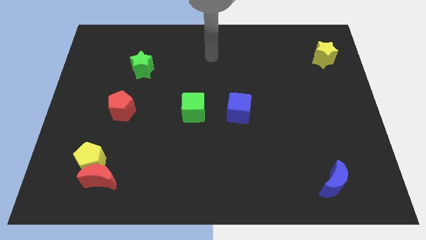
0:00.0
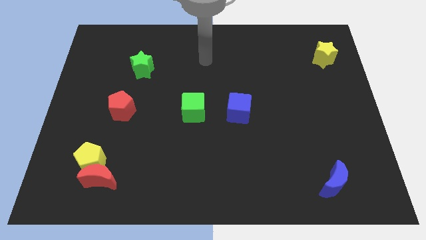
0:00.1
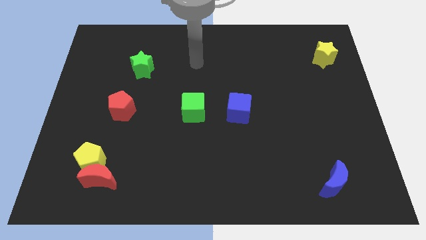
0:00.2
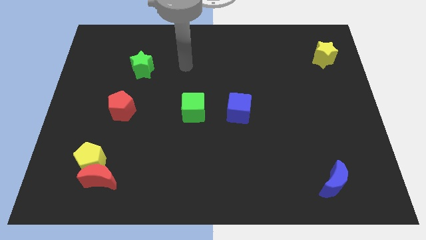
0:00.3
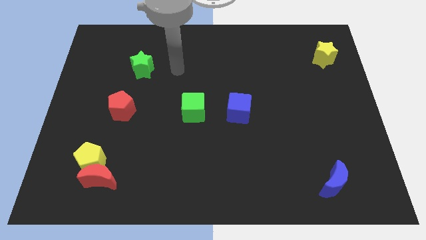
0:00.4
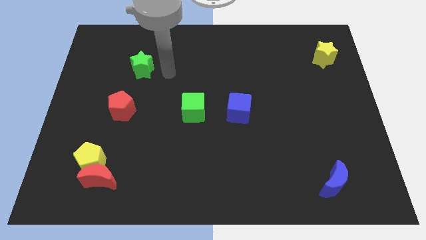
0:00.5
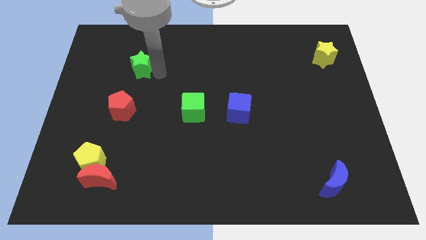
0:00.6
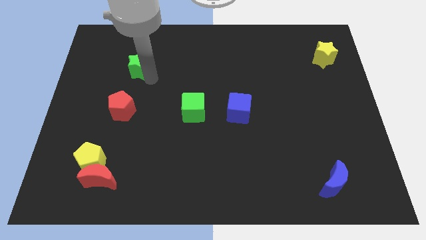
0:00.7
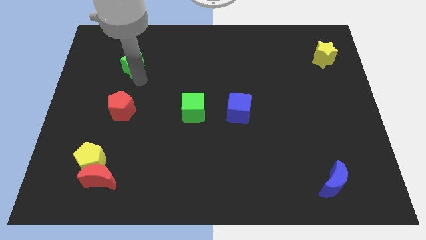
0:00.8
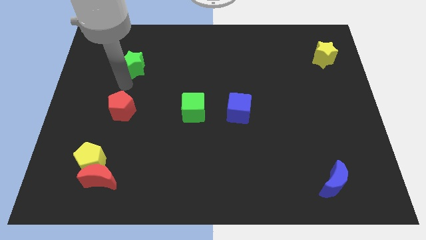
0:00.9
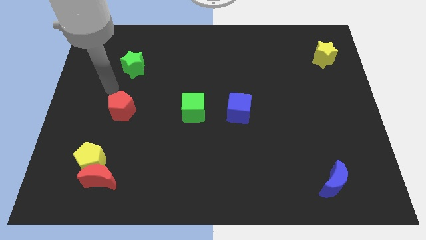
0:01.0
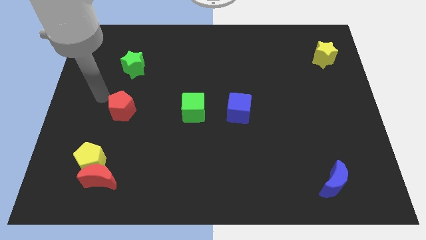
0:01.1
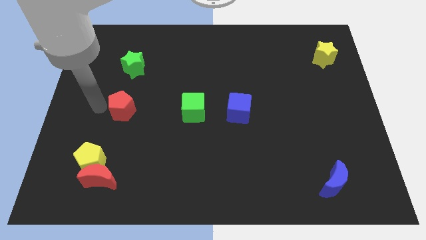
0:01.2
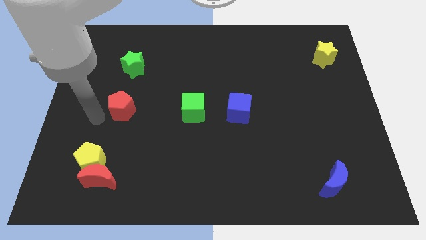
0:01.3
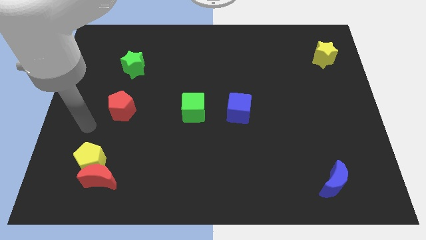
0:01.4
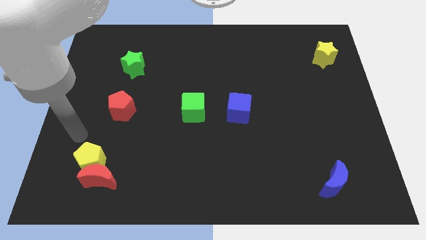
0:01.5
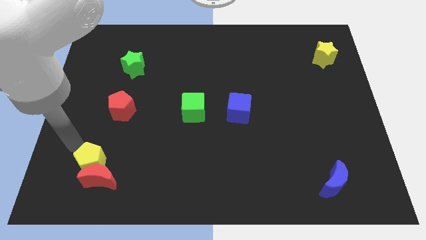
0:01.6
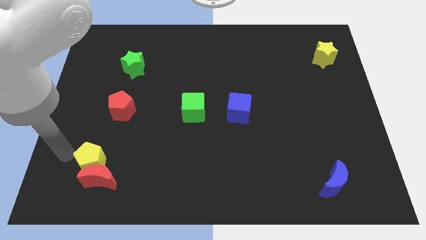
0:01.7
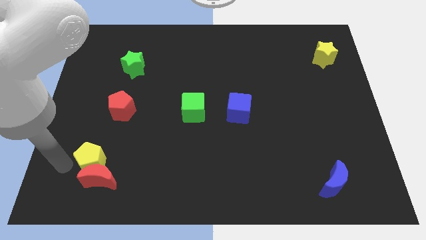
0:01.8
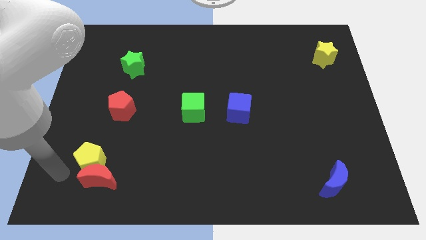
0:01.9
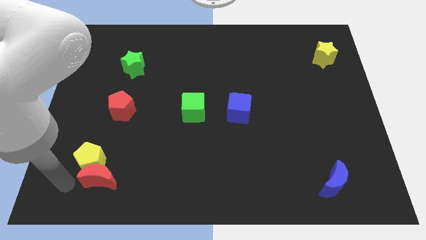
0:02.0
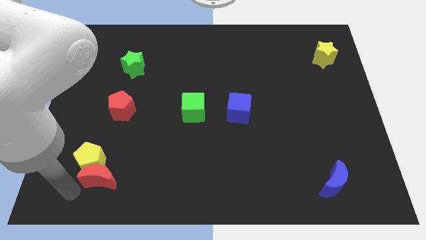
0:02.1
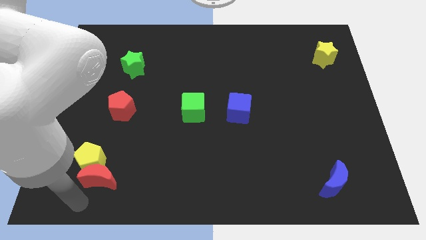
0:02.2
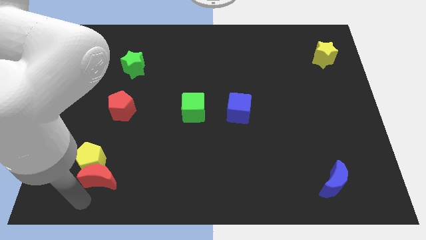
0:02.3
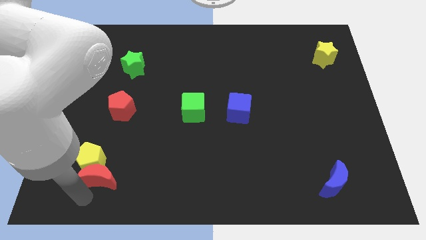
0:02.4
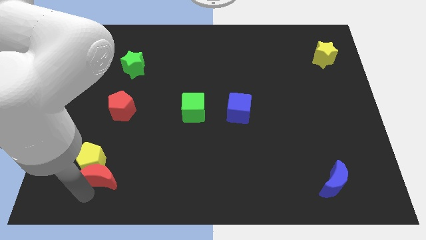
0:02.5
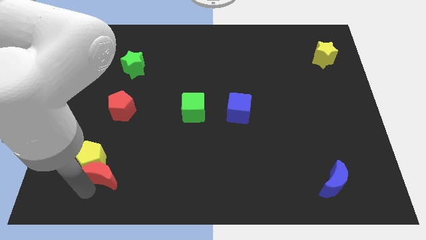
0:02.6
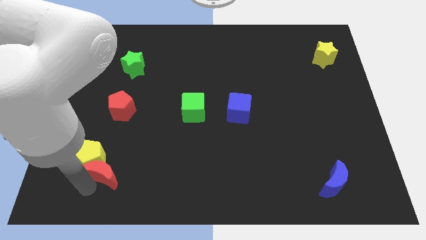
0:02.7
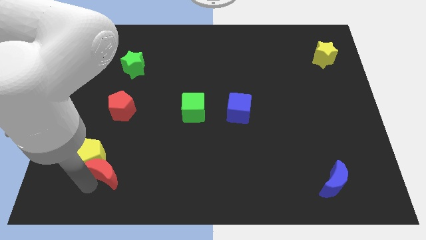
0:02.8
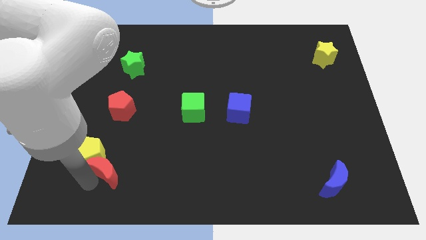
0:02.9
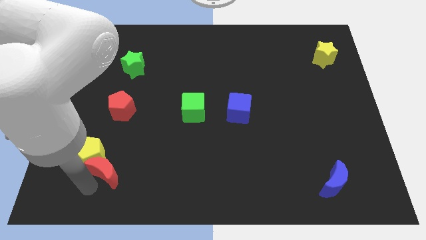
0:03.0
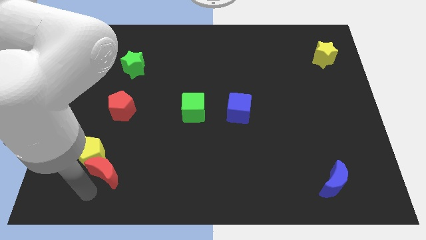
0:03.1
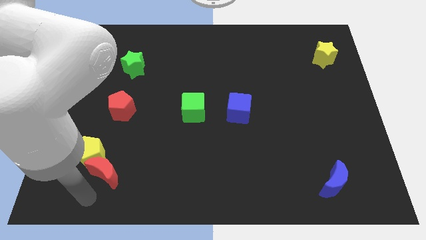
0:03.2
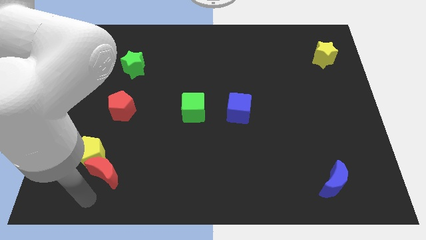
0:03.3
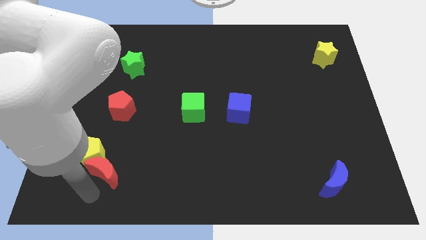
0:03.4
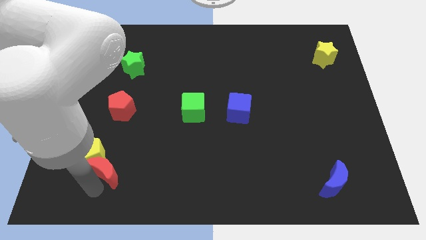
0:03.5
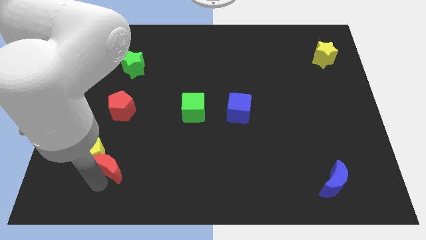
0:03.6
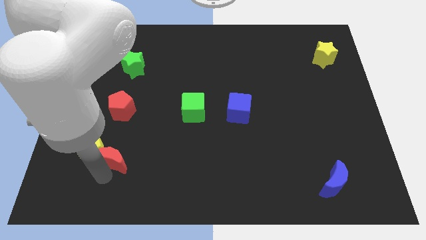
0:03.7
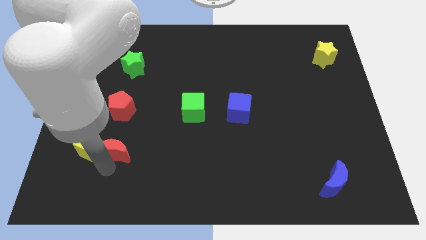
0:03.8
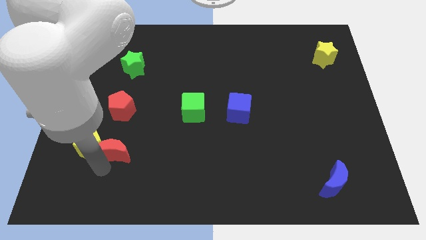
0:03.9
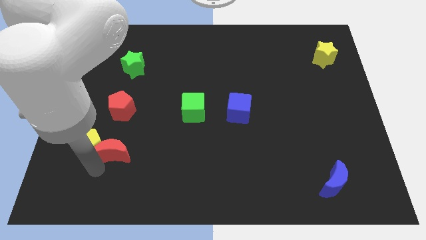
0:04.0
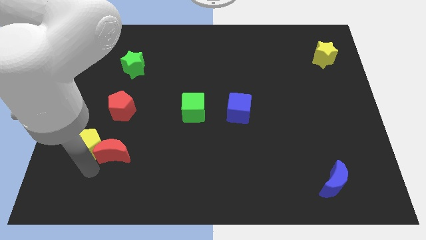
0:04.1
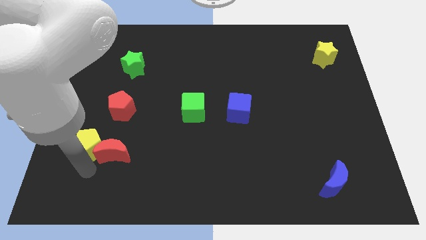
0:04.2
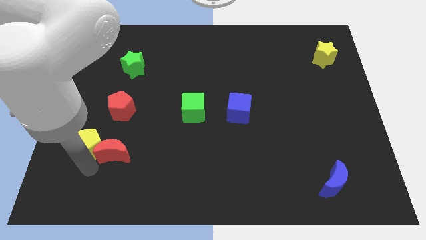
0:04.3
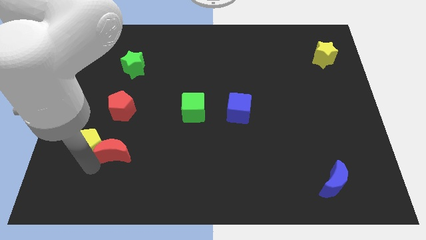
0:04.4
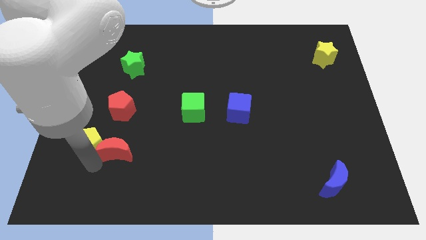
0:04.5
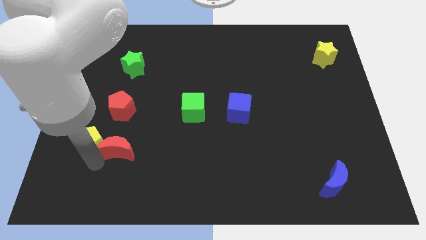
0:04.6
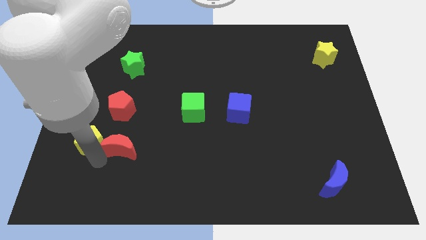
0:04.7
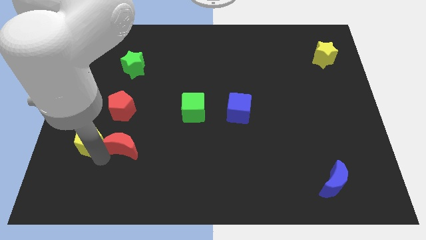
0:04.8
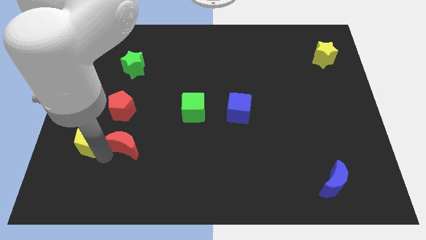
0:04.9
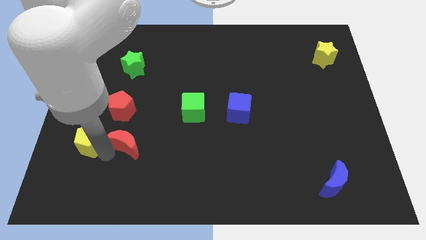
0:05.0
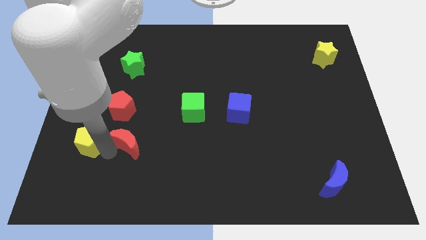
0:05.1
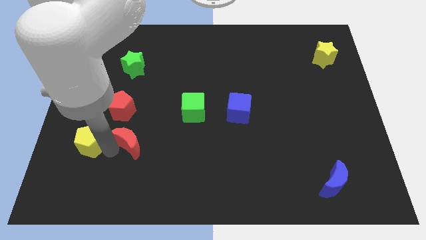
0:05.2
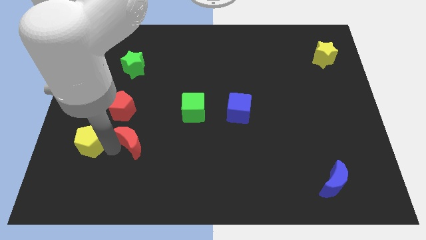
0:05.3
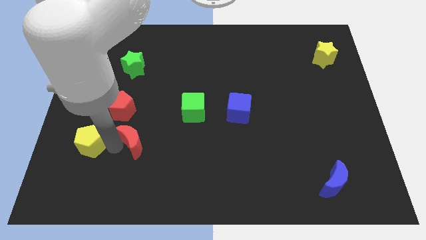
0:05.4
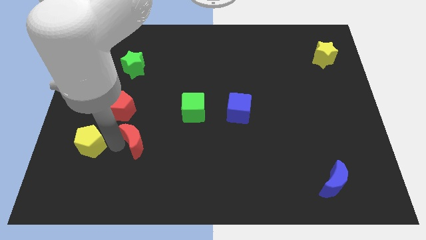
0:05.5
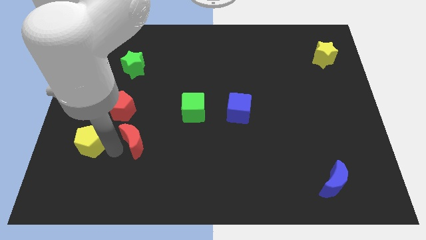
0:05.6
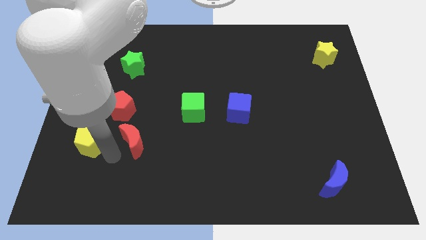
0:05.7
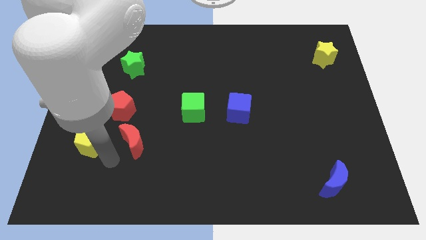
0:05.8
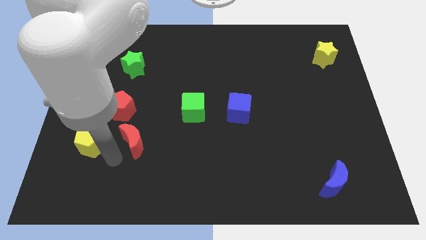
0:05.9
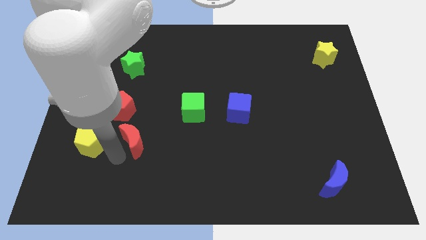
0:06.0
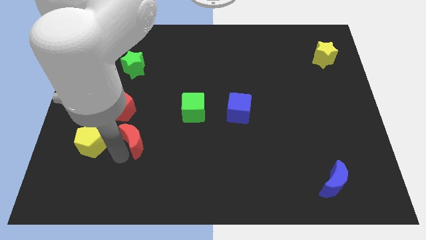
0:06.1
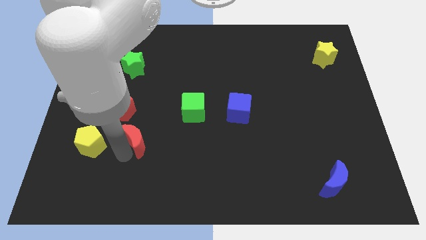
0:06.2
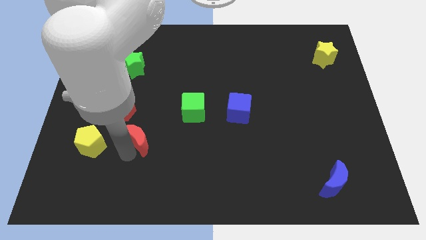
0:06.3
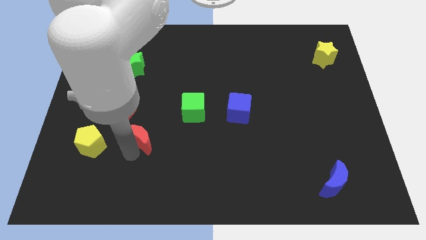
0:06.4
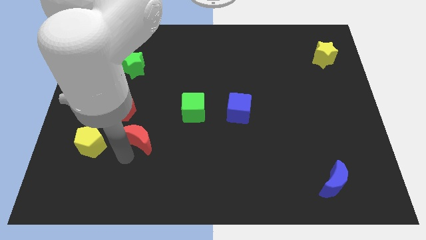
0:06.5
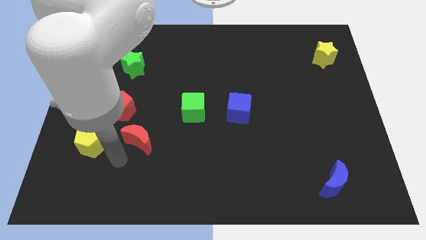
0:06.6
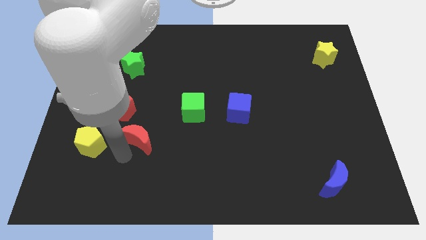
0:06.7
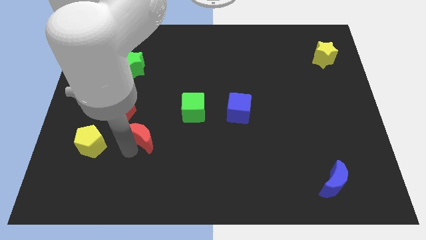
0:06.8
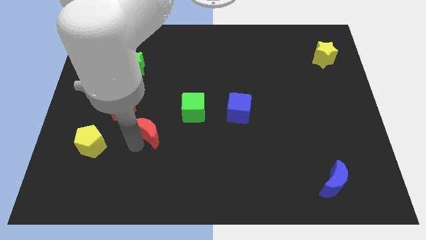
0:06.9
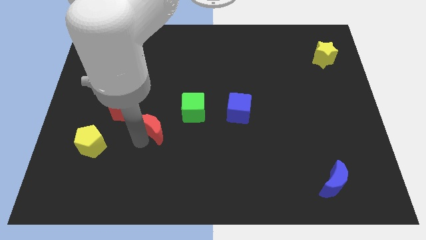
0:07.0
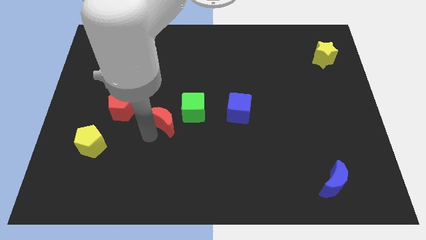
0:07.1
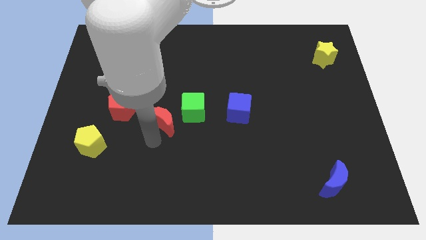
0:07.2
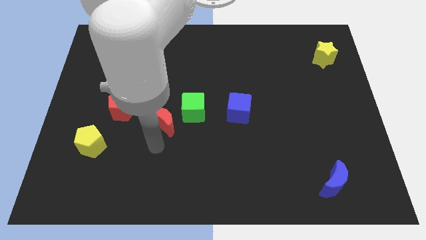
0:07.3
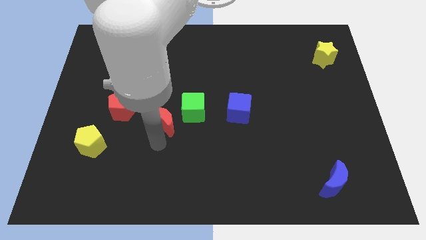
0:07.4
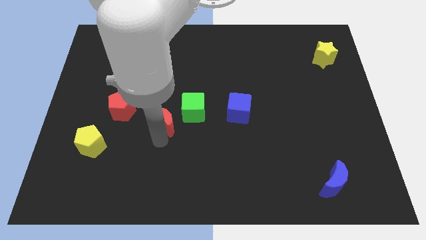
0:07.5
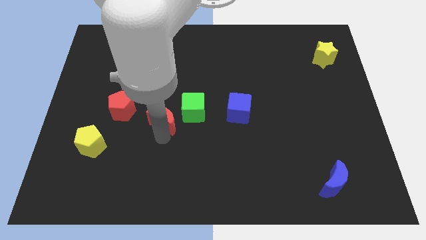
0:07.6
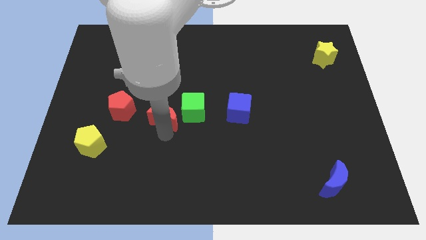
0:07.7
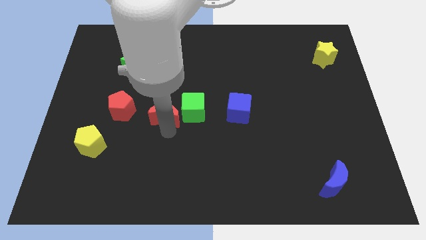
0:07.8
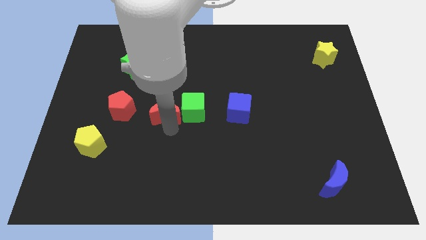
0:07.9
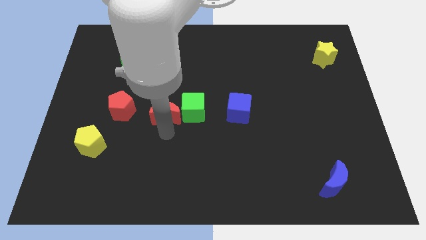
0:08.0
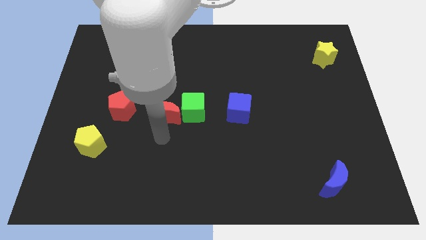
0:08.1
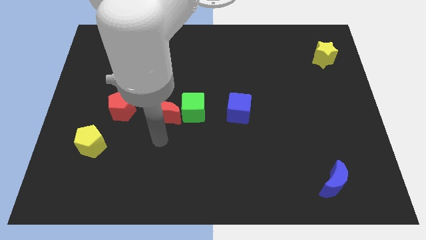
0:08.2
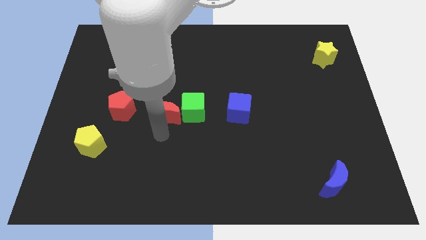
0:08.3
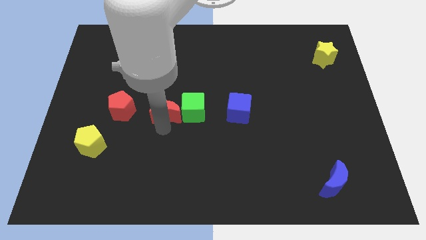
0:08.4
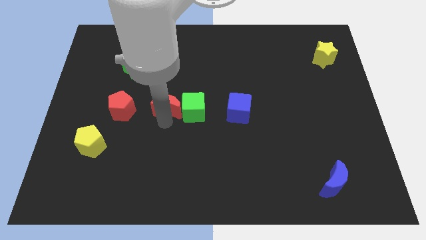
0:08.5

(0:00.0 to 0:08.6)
put the red moon to the top left side of the green cube
